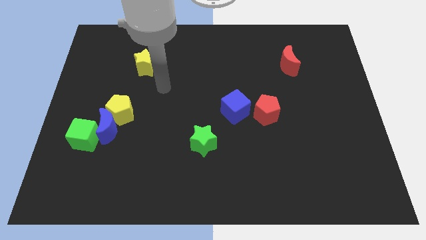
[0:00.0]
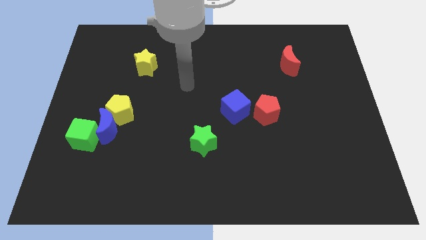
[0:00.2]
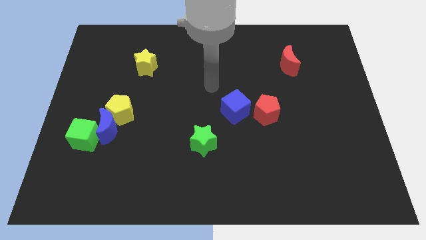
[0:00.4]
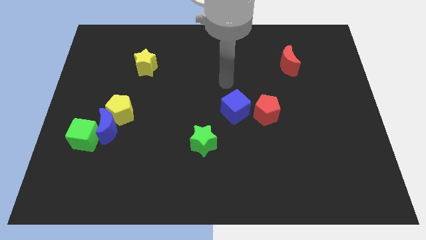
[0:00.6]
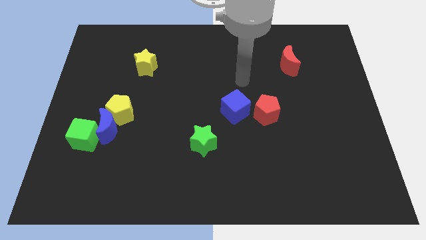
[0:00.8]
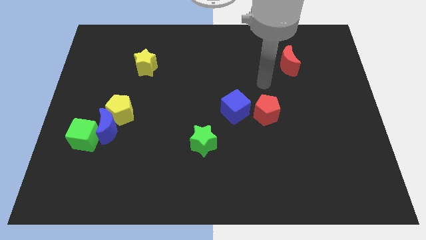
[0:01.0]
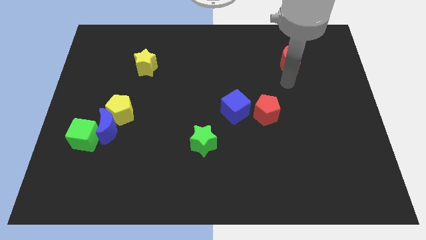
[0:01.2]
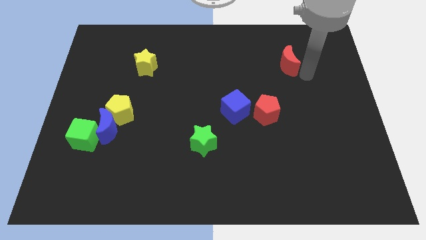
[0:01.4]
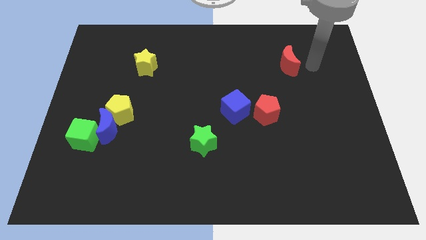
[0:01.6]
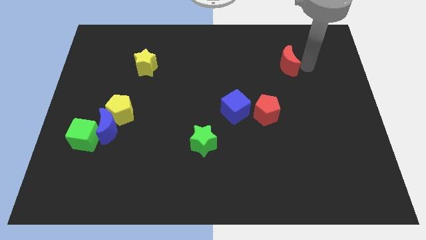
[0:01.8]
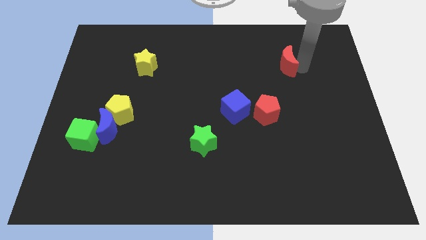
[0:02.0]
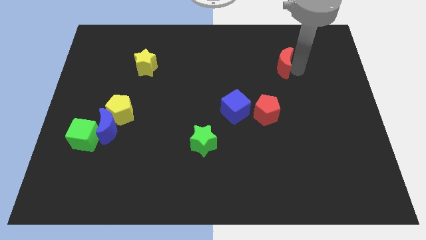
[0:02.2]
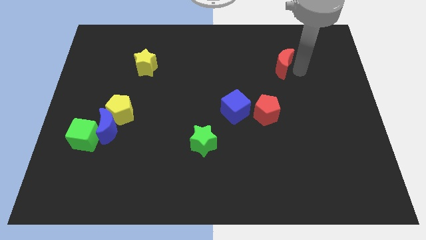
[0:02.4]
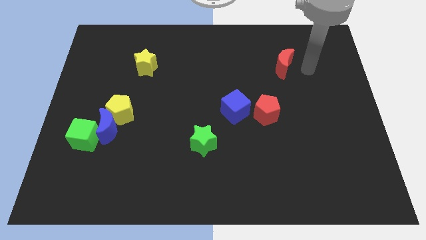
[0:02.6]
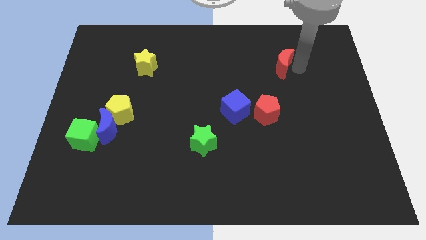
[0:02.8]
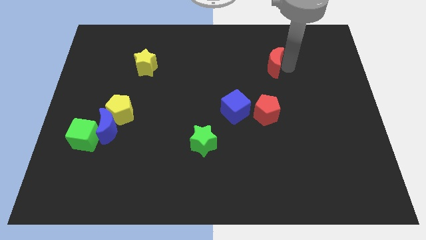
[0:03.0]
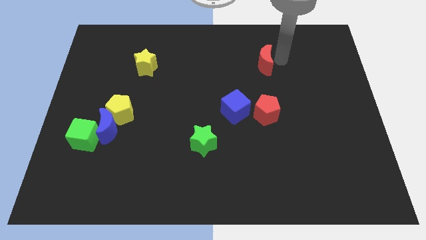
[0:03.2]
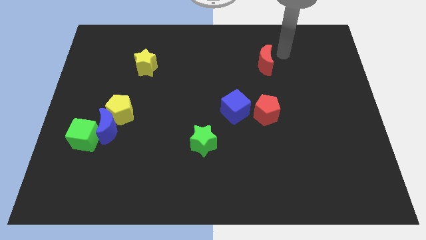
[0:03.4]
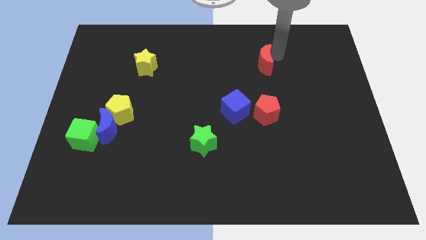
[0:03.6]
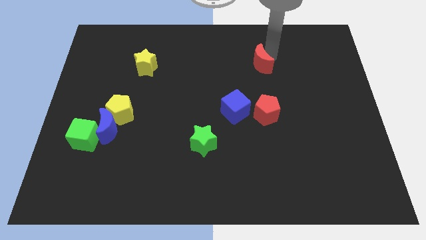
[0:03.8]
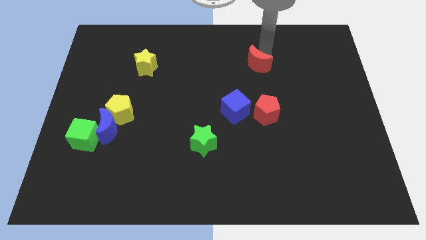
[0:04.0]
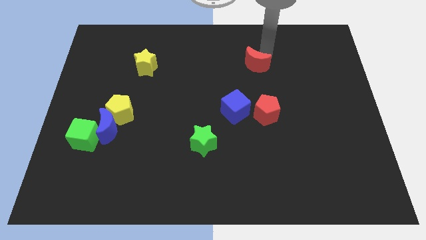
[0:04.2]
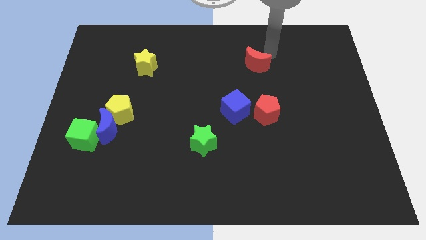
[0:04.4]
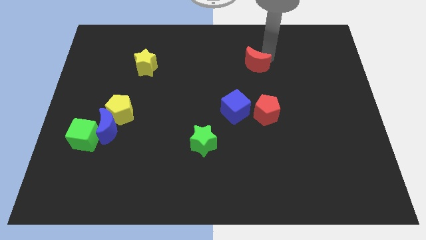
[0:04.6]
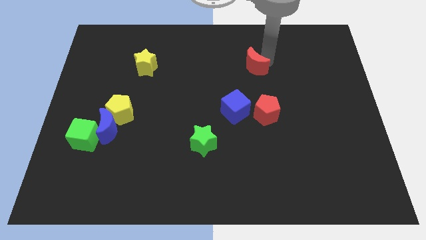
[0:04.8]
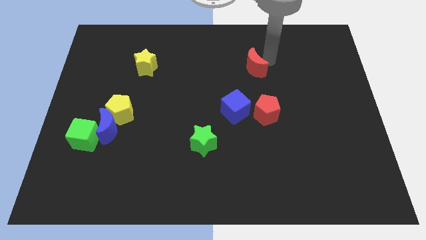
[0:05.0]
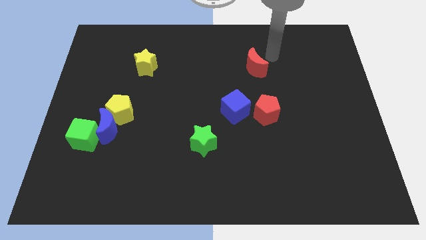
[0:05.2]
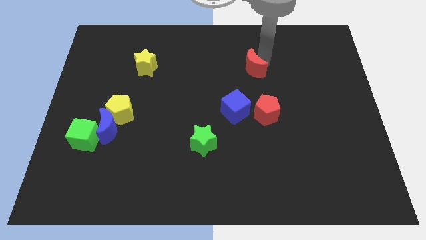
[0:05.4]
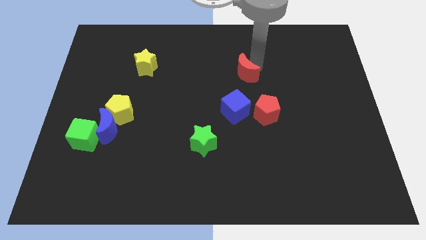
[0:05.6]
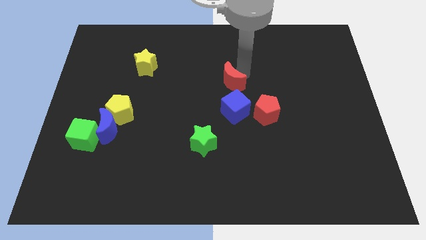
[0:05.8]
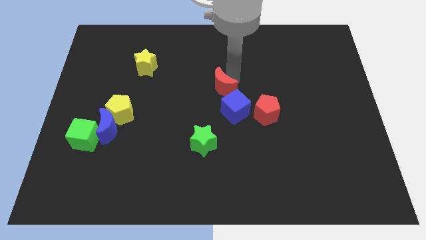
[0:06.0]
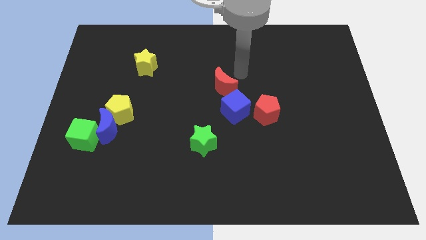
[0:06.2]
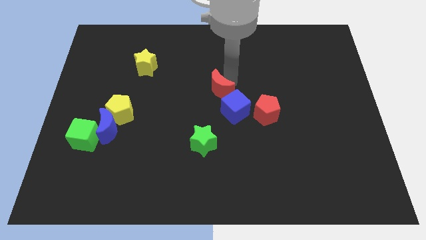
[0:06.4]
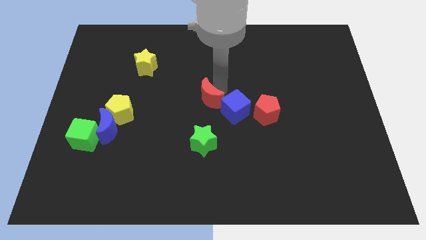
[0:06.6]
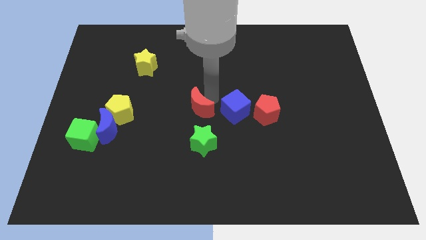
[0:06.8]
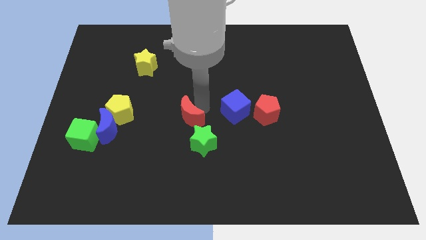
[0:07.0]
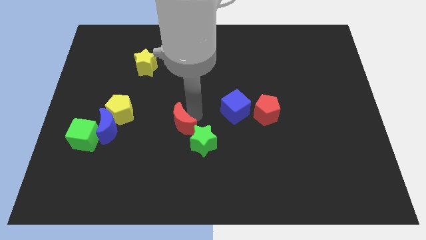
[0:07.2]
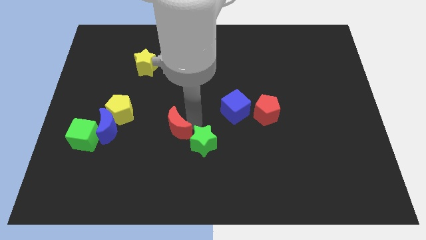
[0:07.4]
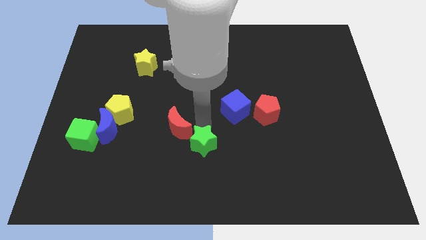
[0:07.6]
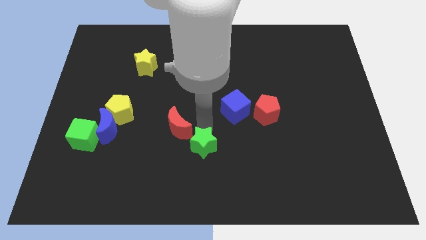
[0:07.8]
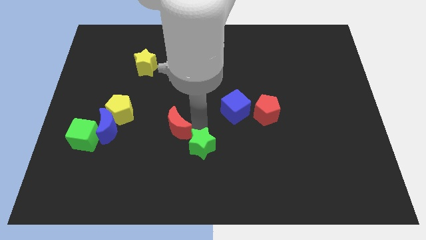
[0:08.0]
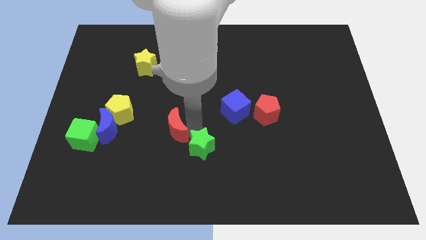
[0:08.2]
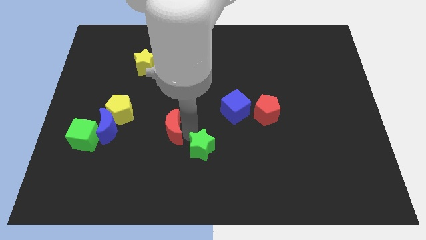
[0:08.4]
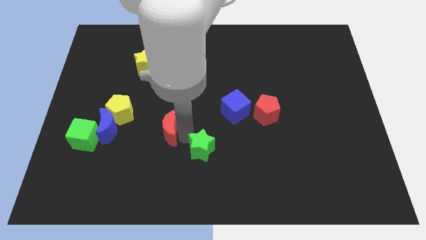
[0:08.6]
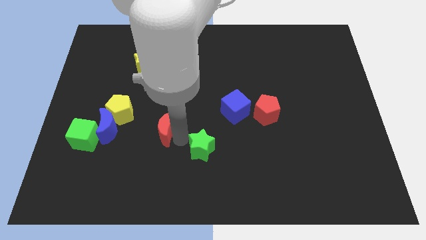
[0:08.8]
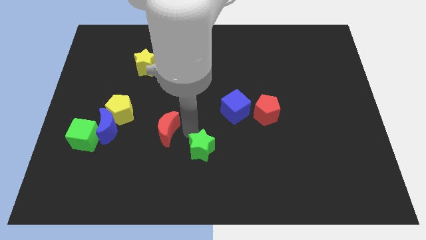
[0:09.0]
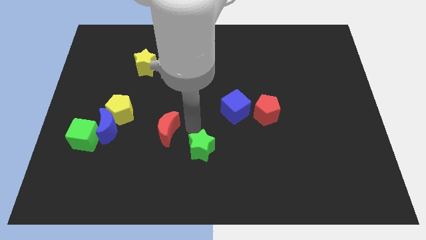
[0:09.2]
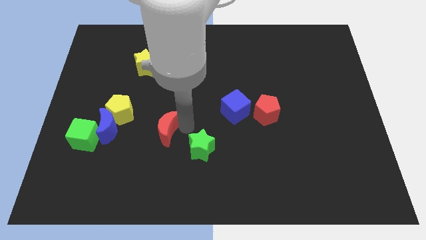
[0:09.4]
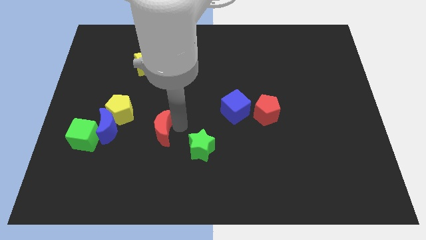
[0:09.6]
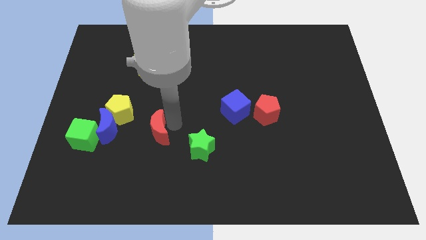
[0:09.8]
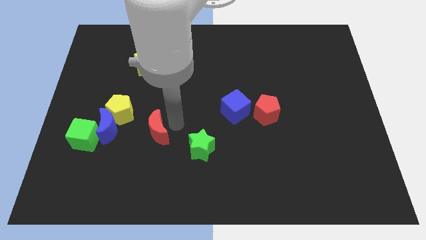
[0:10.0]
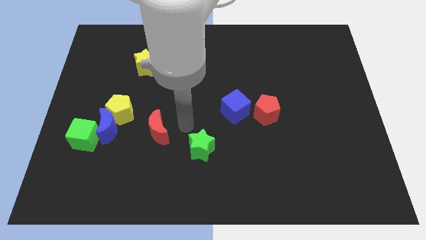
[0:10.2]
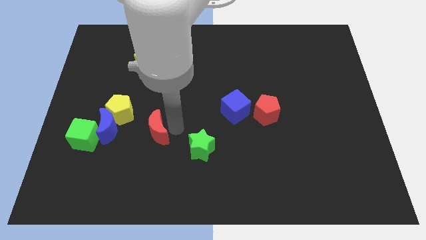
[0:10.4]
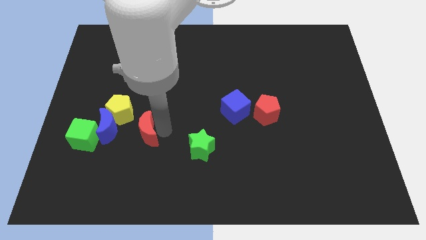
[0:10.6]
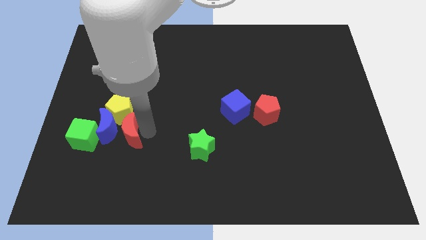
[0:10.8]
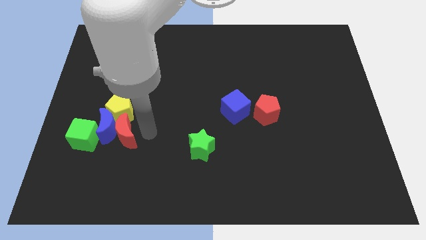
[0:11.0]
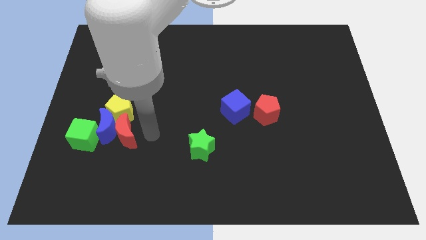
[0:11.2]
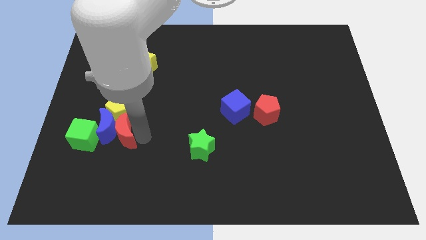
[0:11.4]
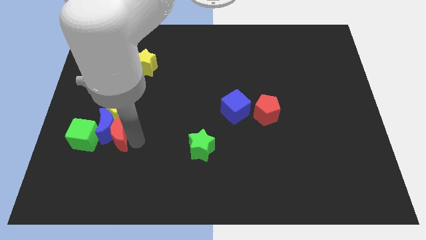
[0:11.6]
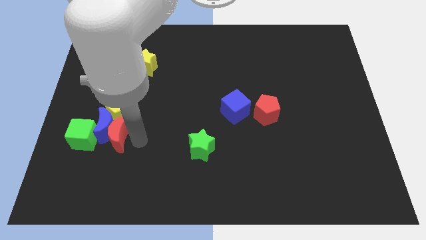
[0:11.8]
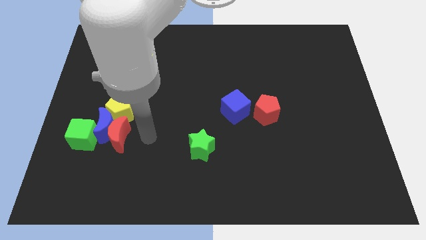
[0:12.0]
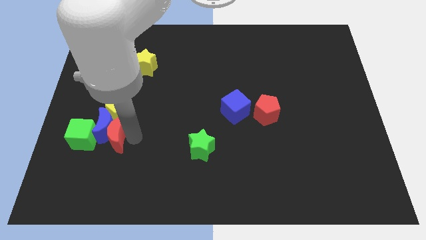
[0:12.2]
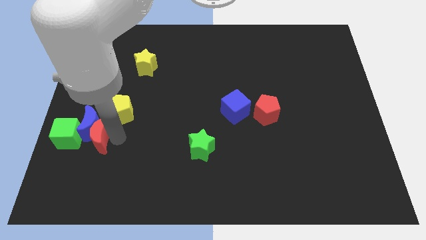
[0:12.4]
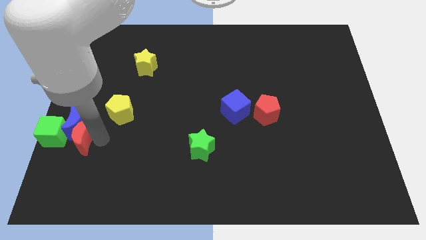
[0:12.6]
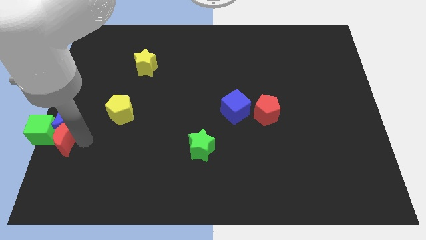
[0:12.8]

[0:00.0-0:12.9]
move the red moon next to the green cube
